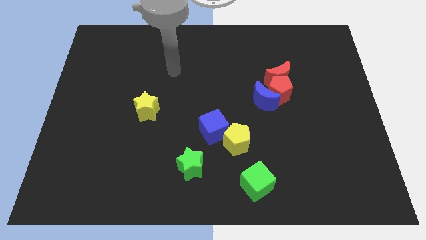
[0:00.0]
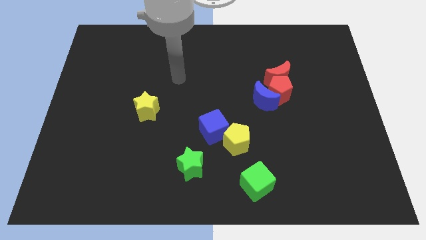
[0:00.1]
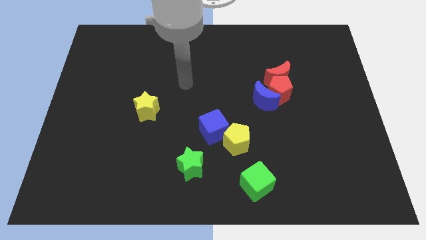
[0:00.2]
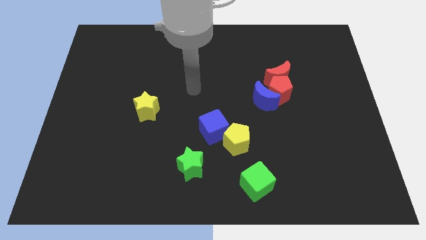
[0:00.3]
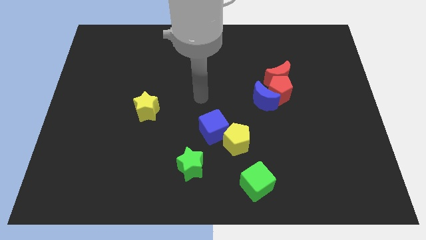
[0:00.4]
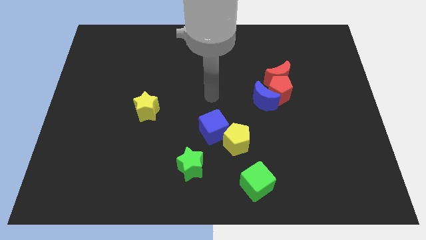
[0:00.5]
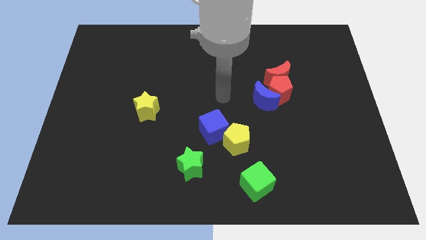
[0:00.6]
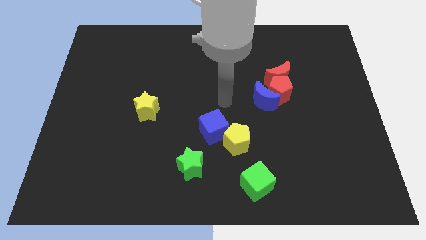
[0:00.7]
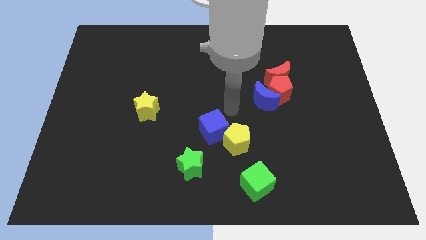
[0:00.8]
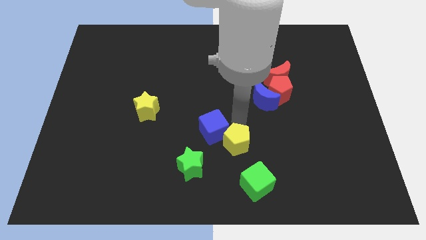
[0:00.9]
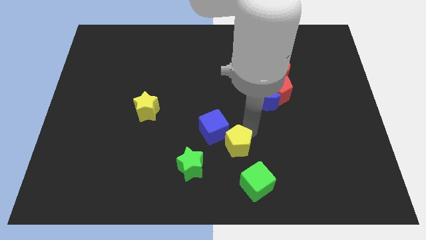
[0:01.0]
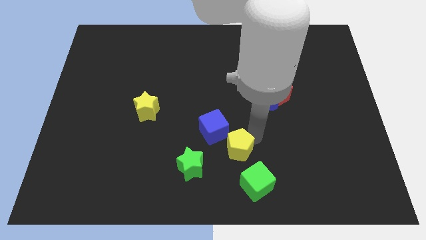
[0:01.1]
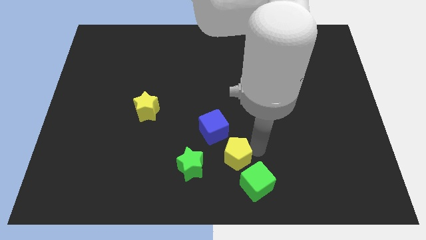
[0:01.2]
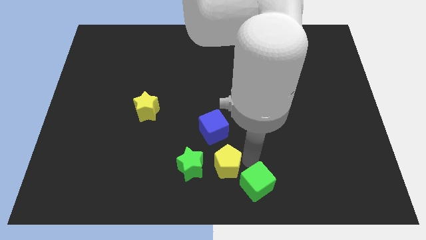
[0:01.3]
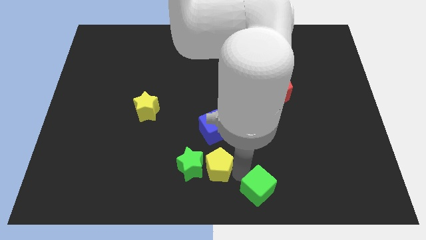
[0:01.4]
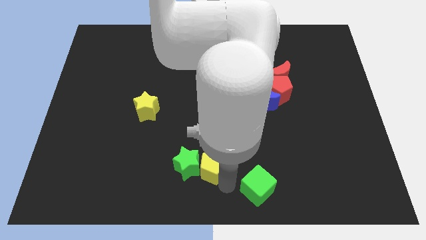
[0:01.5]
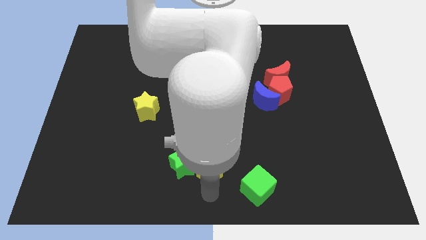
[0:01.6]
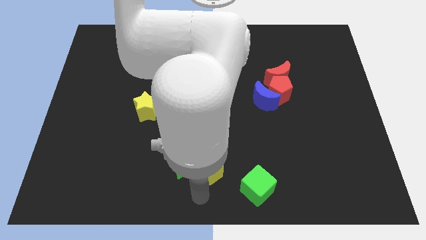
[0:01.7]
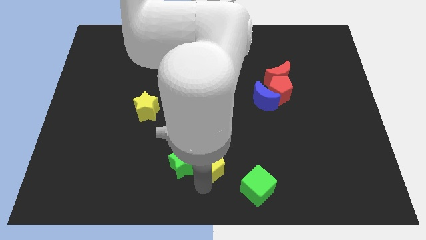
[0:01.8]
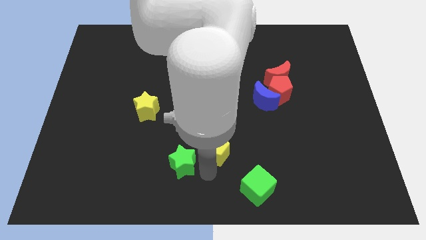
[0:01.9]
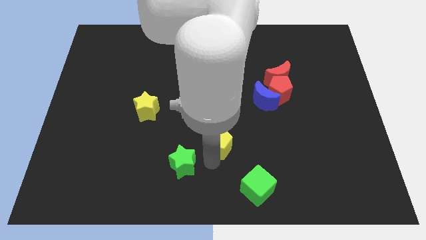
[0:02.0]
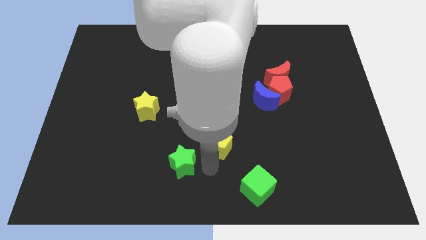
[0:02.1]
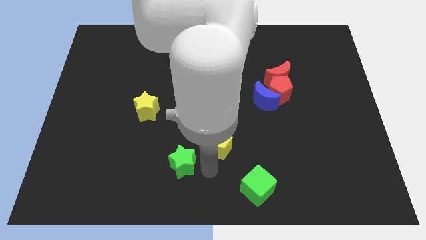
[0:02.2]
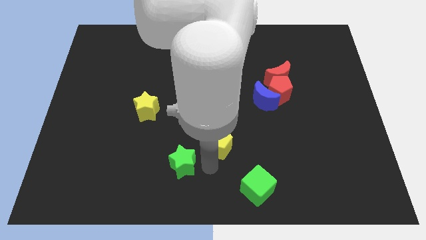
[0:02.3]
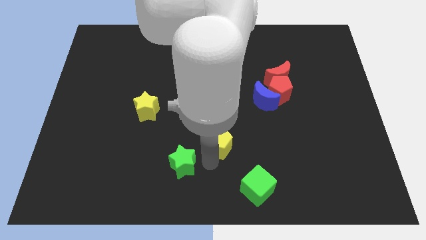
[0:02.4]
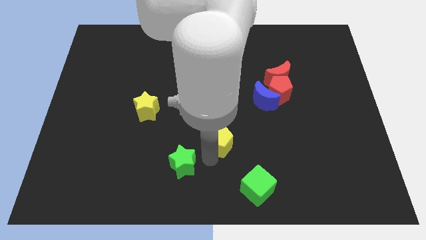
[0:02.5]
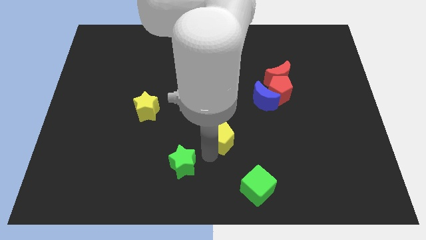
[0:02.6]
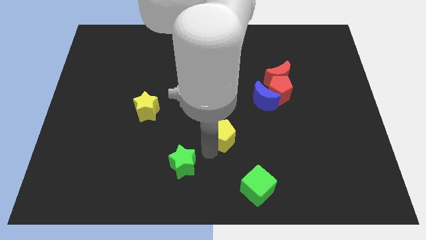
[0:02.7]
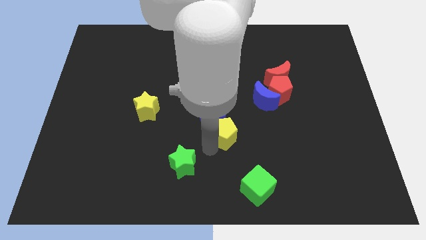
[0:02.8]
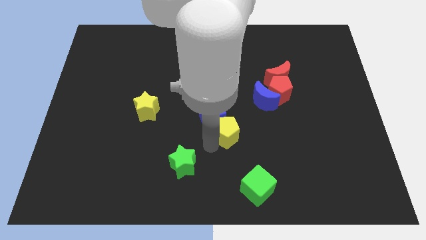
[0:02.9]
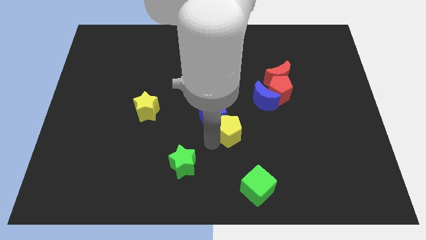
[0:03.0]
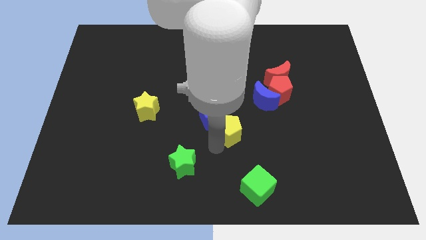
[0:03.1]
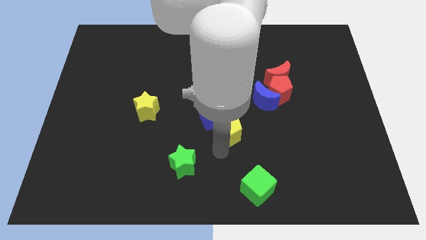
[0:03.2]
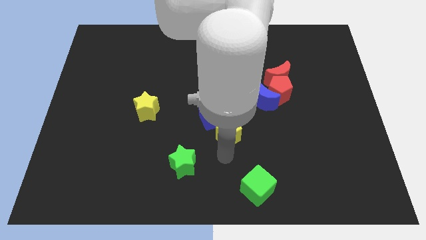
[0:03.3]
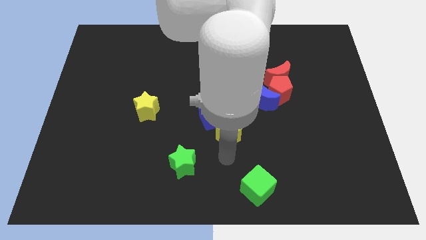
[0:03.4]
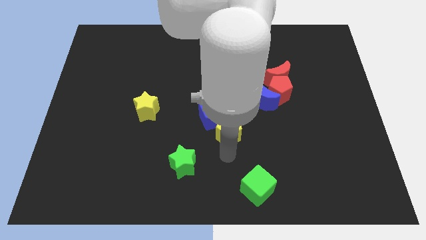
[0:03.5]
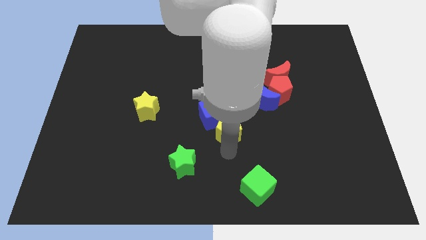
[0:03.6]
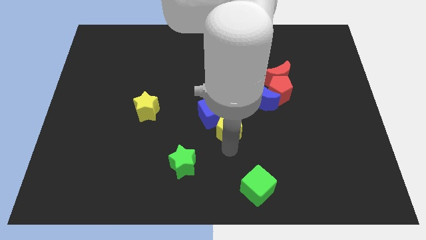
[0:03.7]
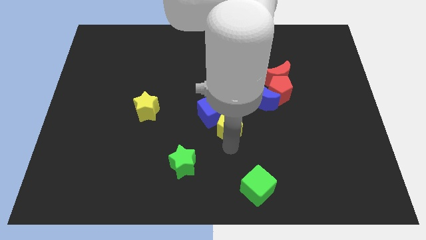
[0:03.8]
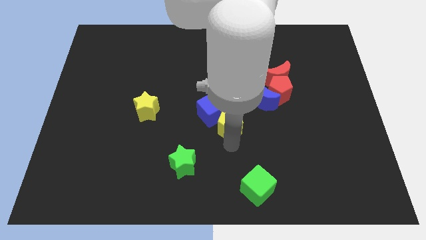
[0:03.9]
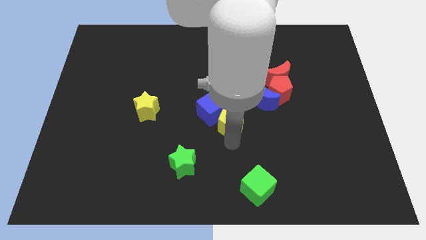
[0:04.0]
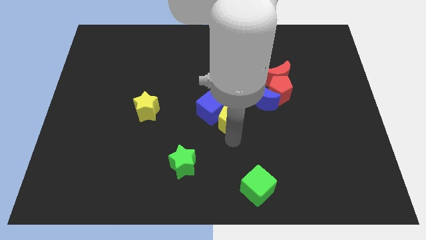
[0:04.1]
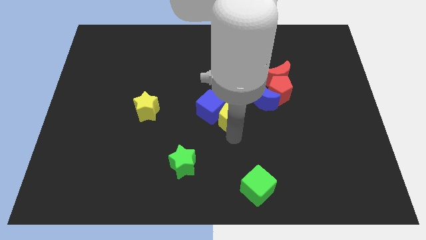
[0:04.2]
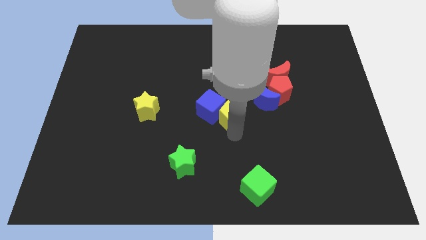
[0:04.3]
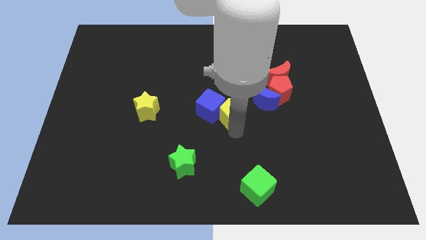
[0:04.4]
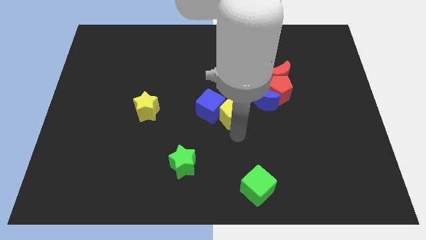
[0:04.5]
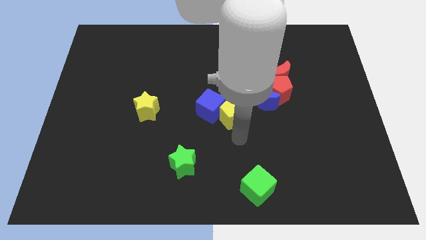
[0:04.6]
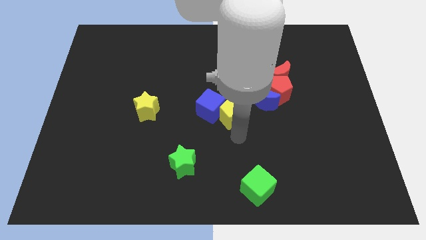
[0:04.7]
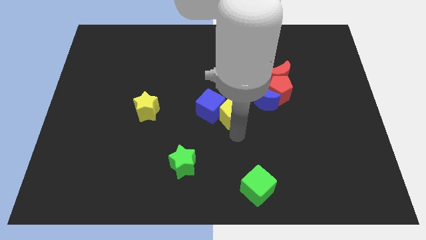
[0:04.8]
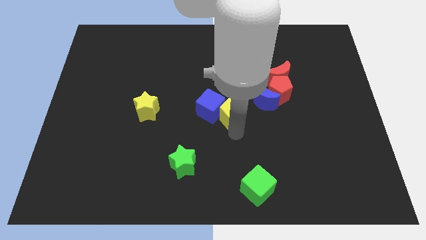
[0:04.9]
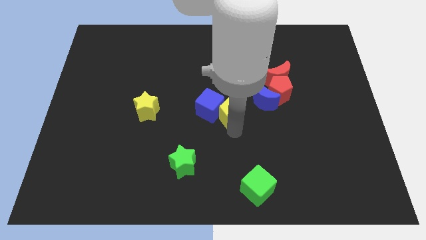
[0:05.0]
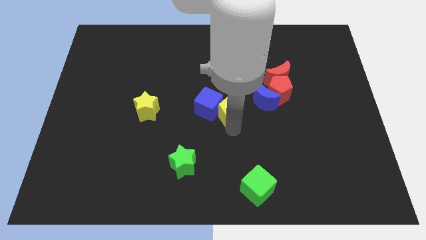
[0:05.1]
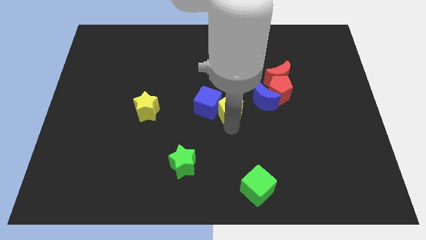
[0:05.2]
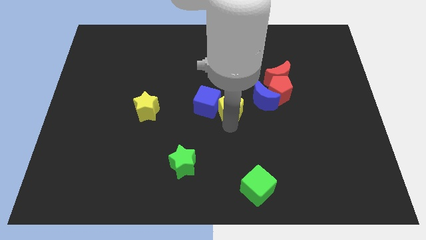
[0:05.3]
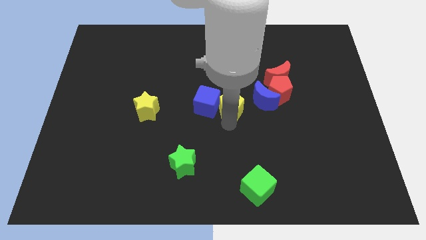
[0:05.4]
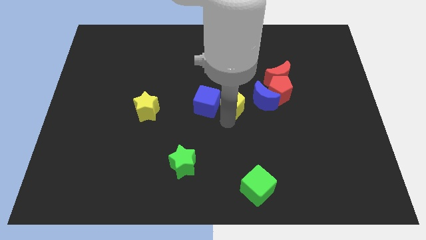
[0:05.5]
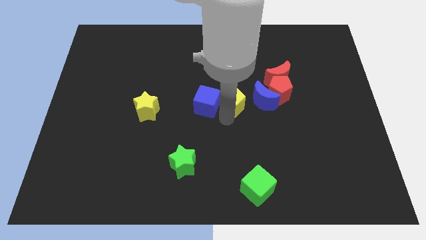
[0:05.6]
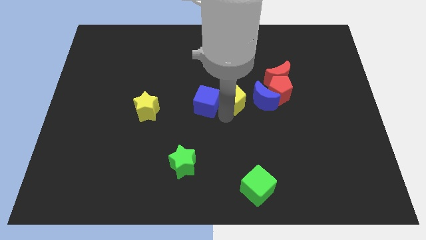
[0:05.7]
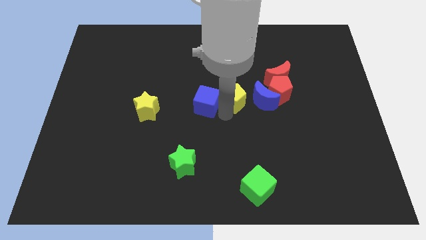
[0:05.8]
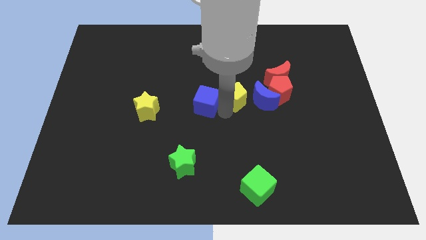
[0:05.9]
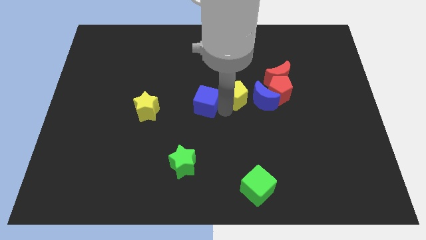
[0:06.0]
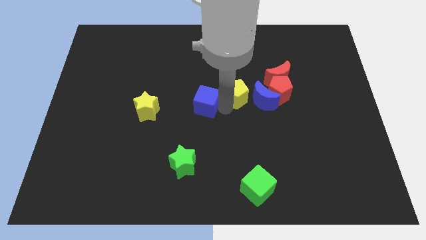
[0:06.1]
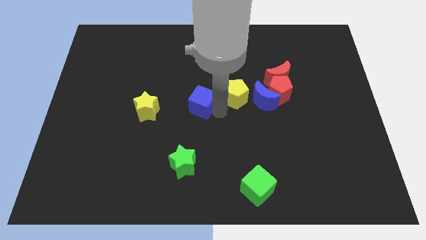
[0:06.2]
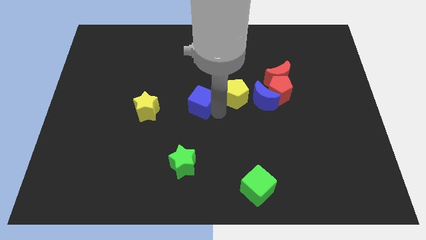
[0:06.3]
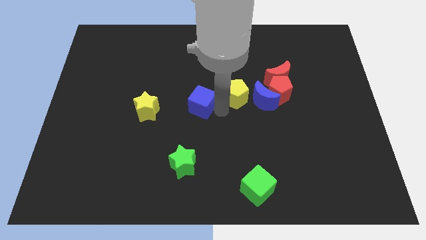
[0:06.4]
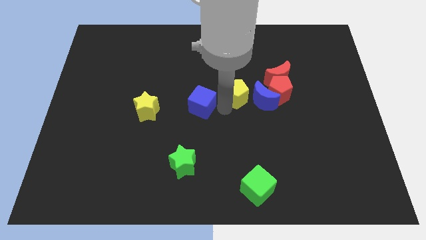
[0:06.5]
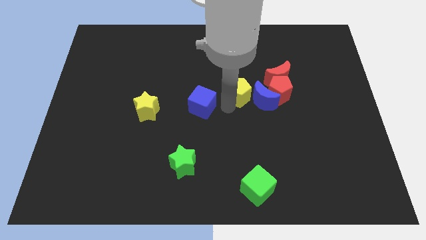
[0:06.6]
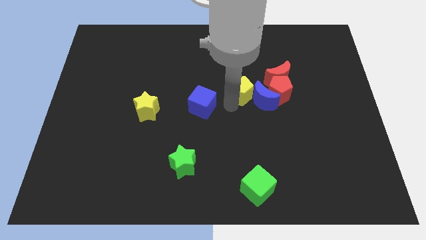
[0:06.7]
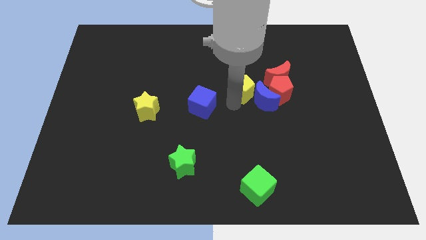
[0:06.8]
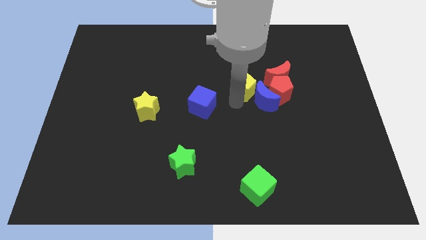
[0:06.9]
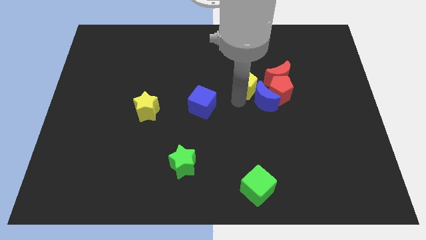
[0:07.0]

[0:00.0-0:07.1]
push the yellow pentagon to the top left of the red pentagon
